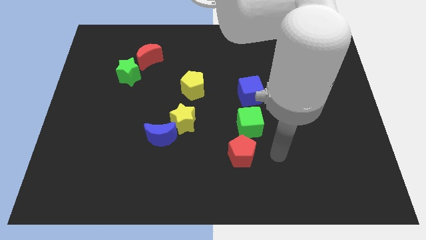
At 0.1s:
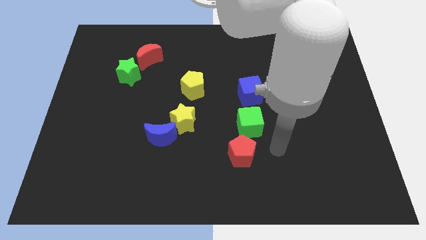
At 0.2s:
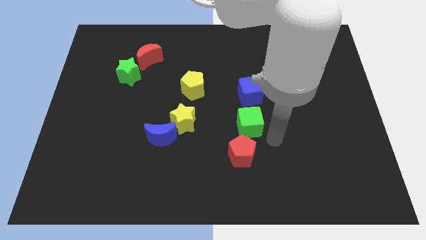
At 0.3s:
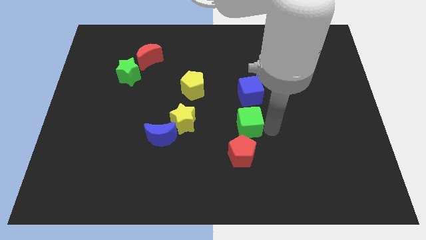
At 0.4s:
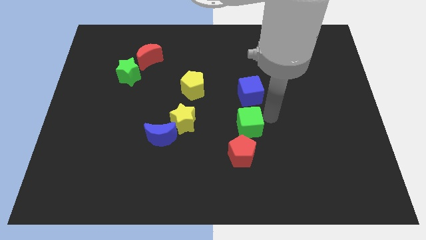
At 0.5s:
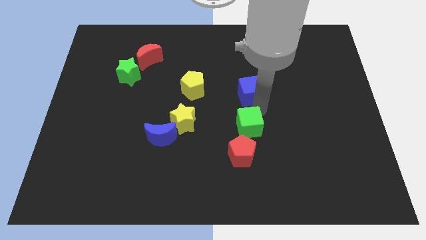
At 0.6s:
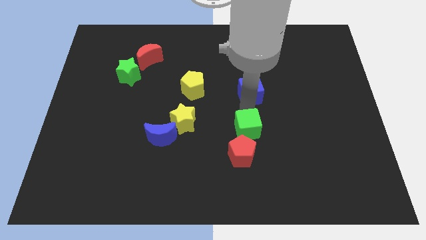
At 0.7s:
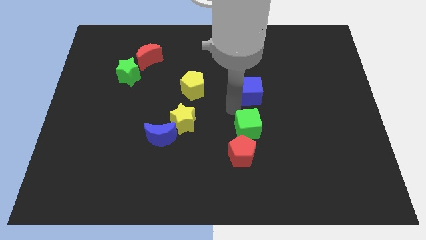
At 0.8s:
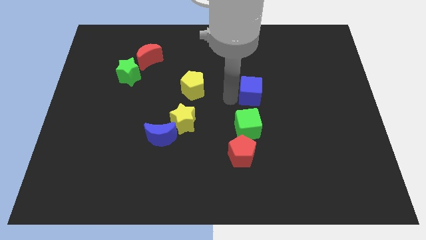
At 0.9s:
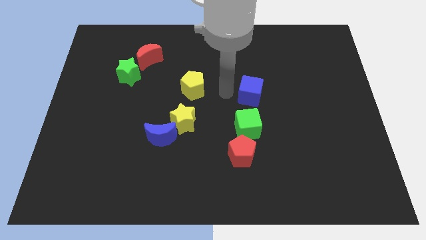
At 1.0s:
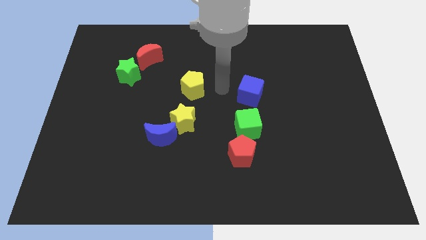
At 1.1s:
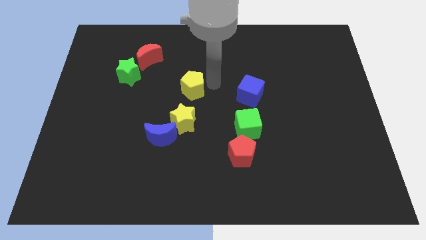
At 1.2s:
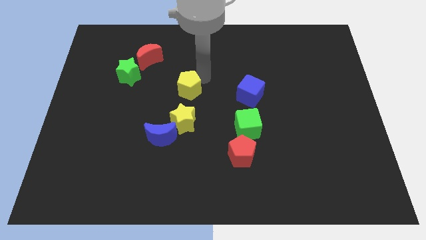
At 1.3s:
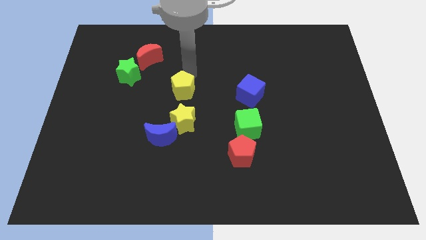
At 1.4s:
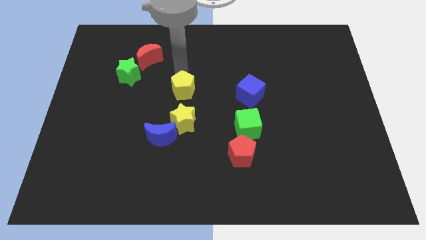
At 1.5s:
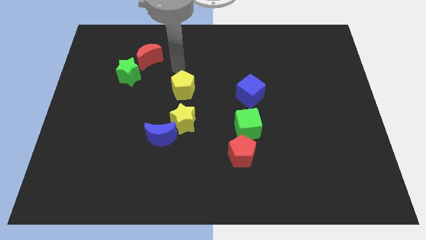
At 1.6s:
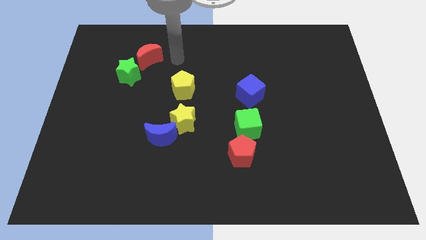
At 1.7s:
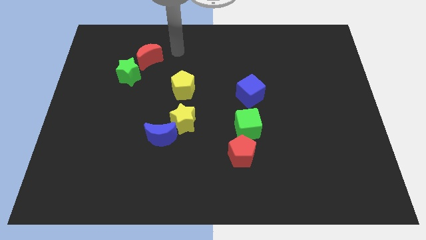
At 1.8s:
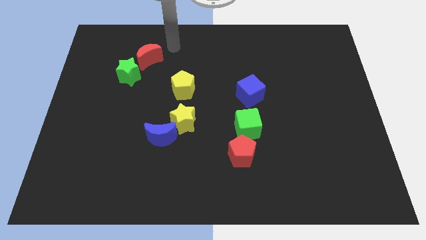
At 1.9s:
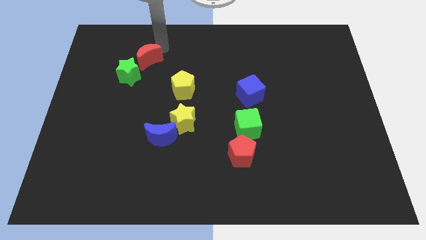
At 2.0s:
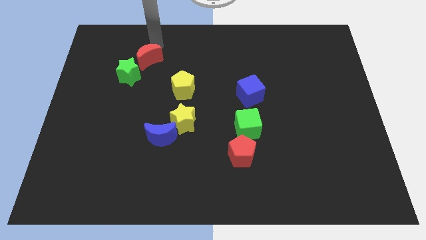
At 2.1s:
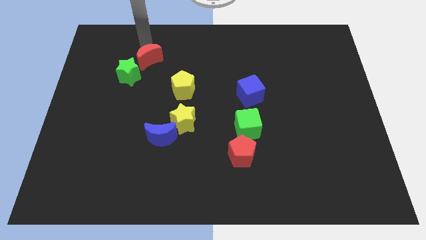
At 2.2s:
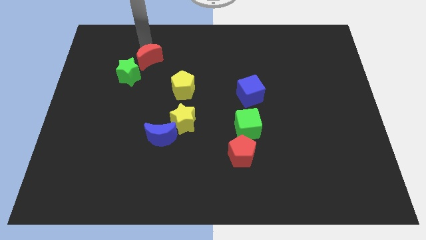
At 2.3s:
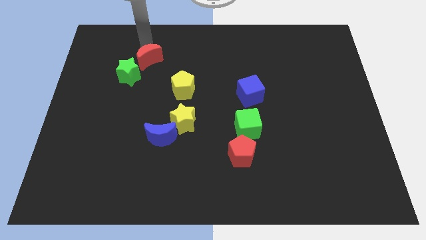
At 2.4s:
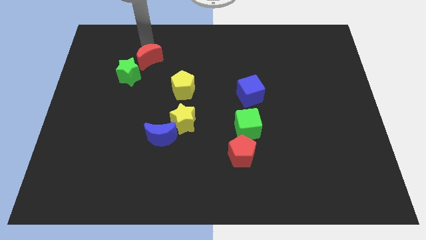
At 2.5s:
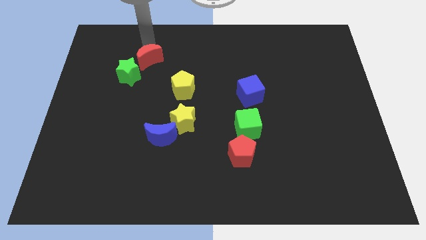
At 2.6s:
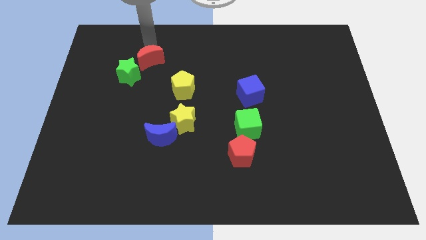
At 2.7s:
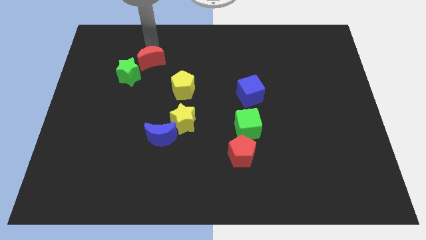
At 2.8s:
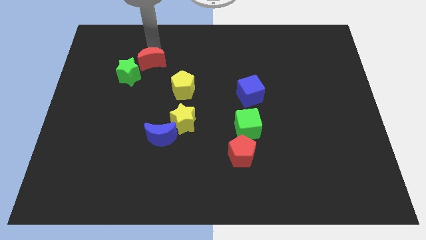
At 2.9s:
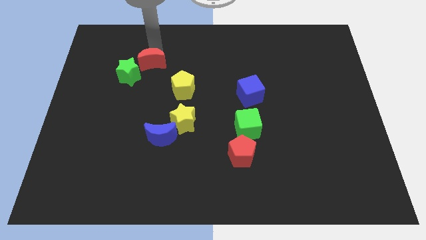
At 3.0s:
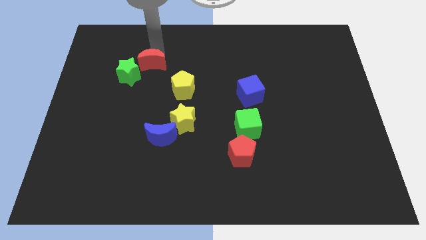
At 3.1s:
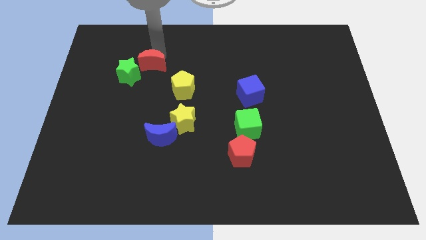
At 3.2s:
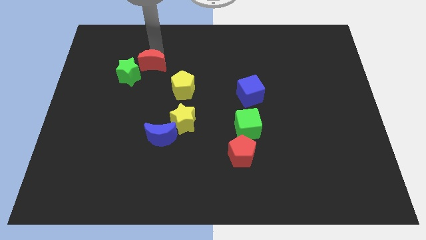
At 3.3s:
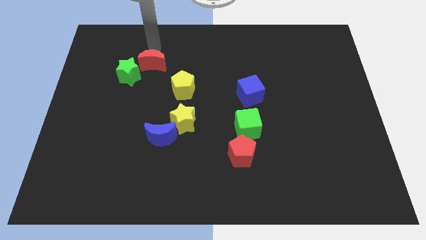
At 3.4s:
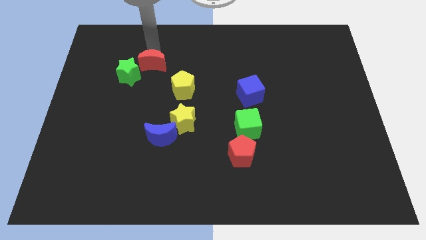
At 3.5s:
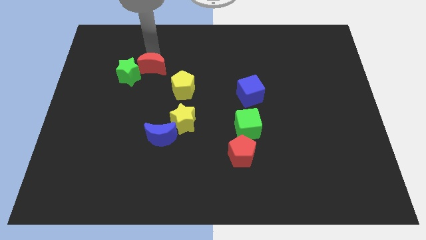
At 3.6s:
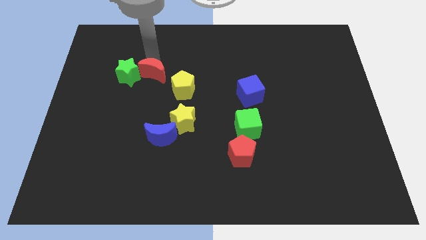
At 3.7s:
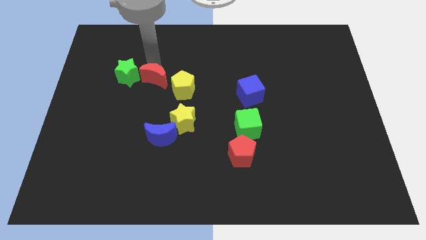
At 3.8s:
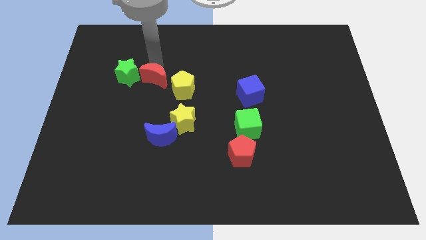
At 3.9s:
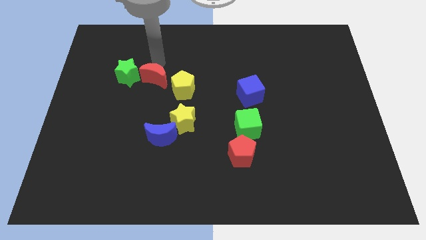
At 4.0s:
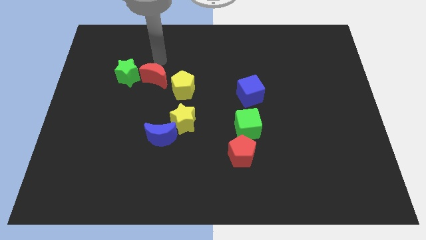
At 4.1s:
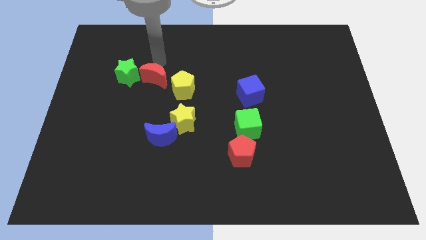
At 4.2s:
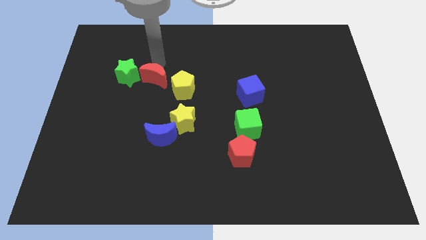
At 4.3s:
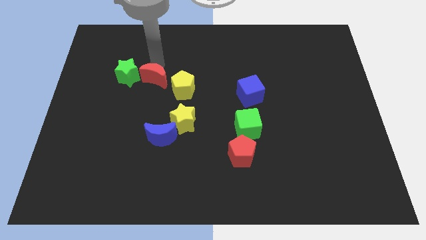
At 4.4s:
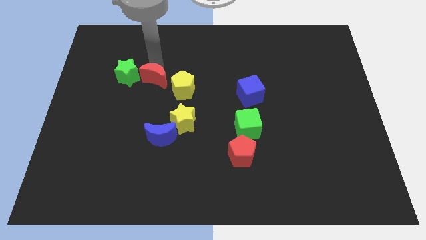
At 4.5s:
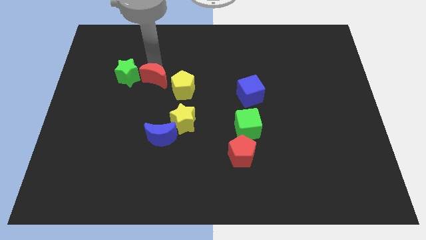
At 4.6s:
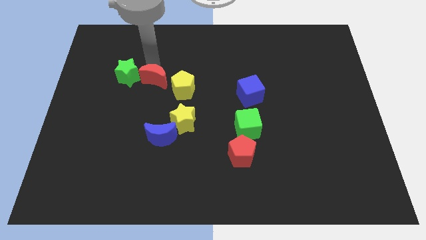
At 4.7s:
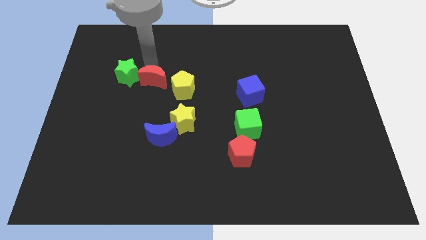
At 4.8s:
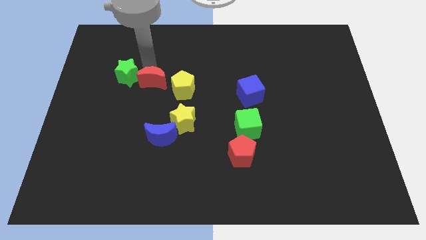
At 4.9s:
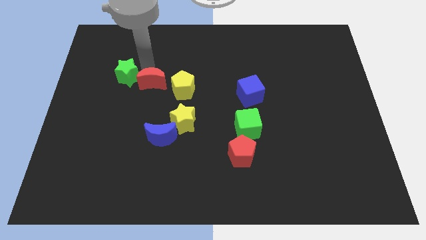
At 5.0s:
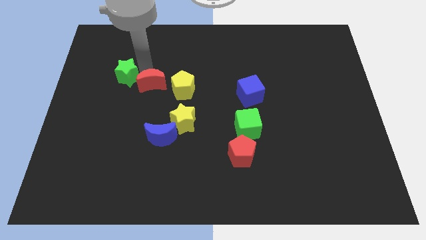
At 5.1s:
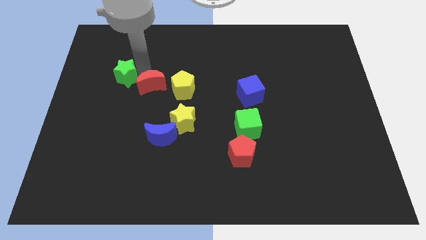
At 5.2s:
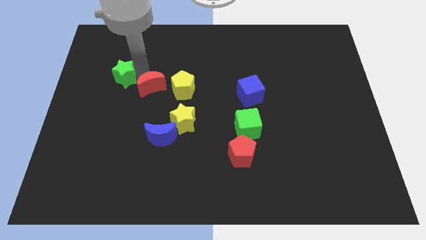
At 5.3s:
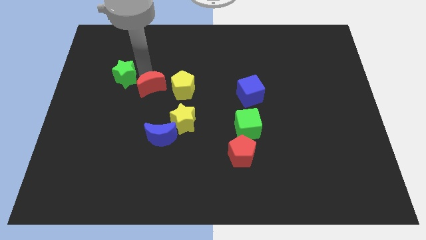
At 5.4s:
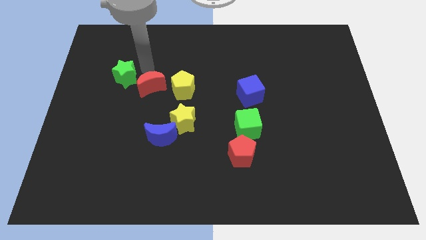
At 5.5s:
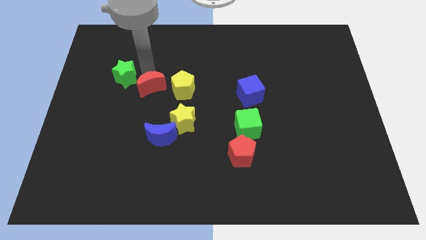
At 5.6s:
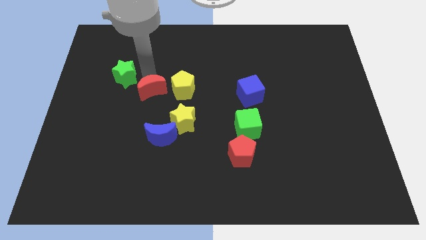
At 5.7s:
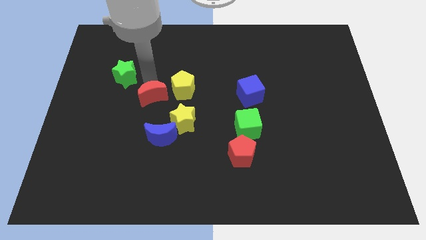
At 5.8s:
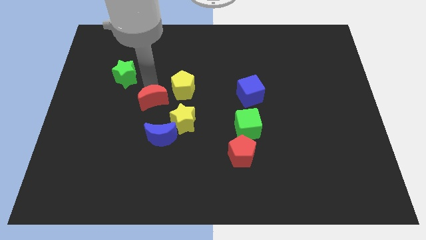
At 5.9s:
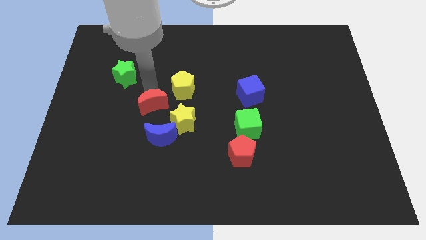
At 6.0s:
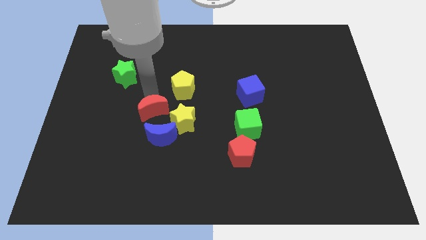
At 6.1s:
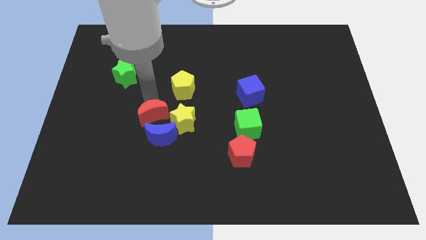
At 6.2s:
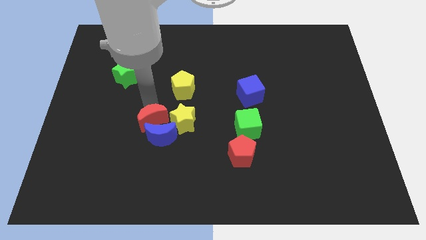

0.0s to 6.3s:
push the red moon close to the blue moon

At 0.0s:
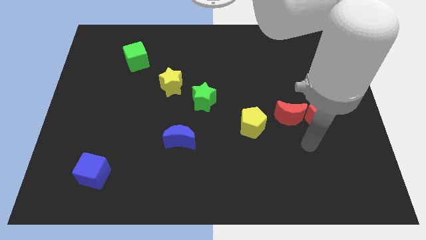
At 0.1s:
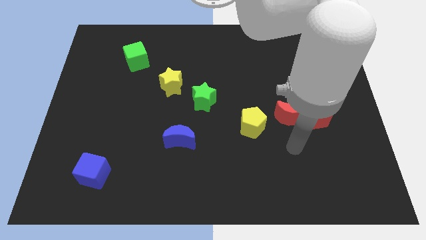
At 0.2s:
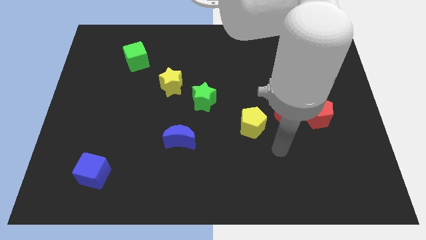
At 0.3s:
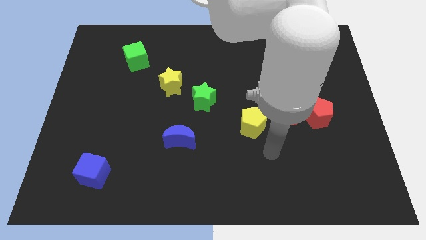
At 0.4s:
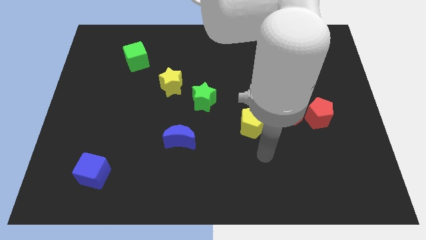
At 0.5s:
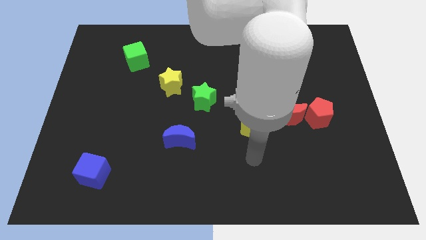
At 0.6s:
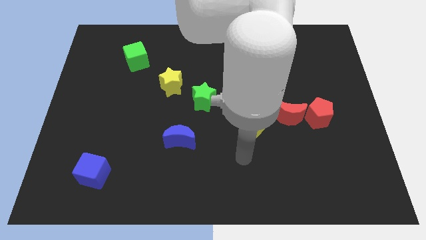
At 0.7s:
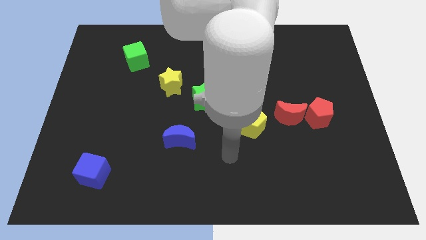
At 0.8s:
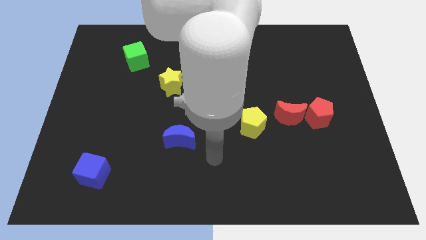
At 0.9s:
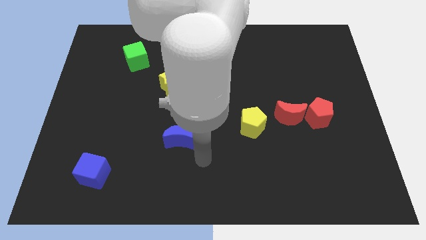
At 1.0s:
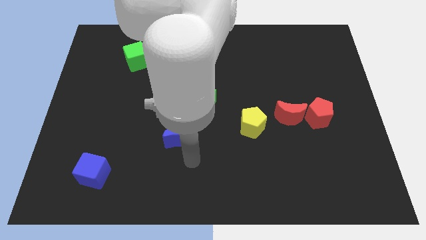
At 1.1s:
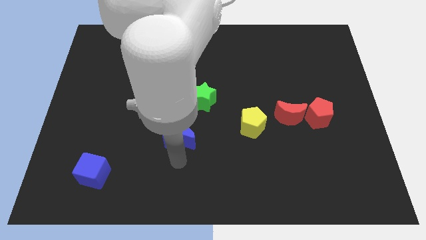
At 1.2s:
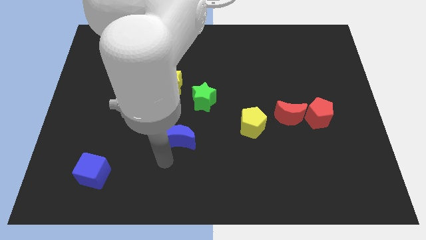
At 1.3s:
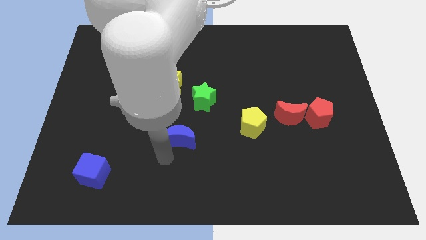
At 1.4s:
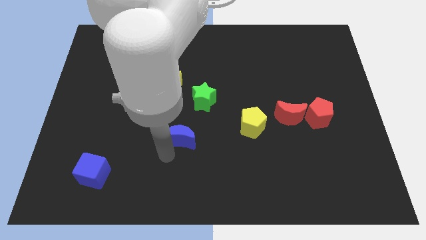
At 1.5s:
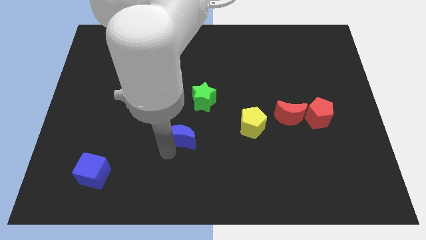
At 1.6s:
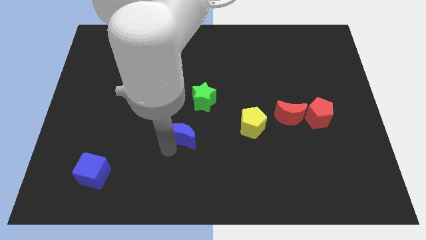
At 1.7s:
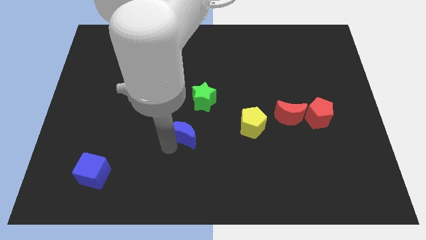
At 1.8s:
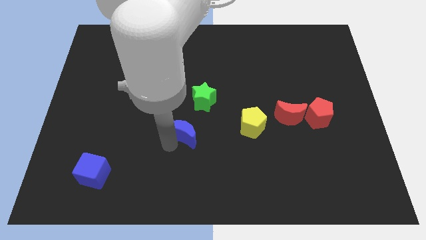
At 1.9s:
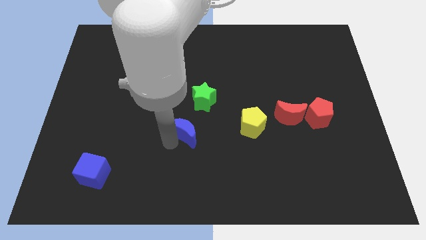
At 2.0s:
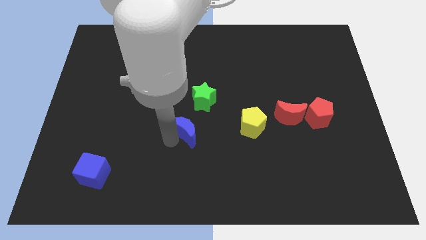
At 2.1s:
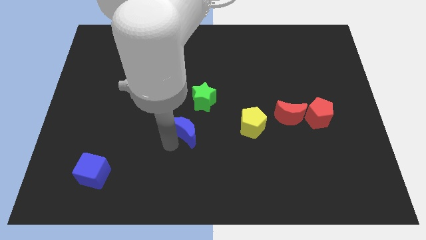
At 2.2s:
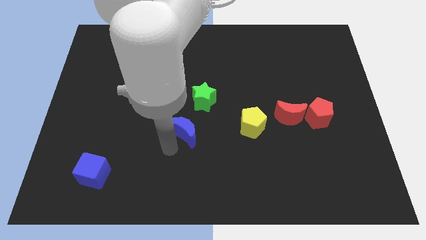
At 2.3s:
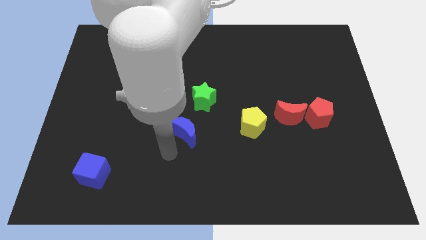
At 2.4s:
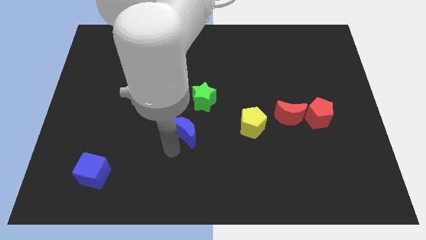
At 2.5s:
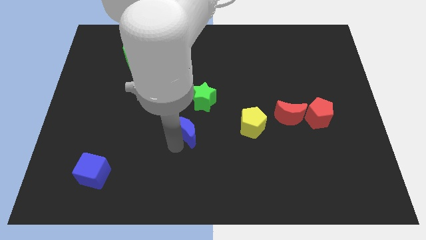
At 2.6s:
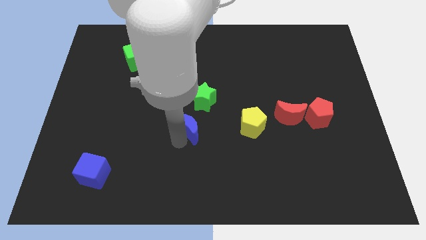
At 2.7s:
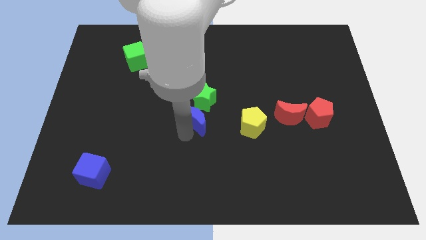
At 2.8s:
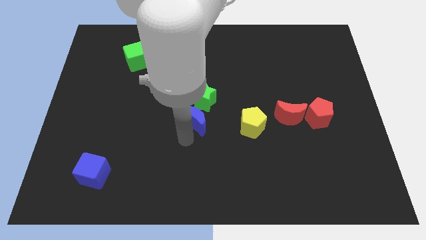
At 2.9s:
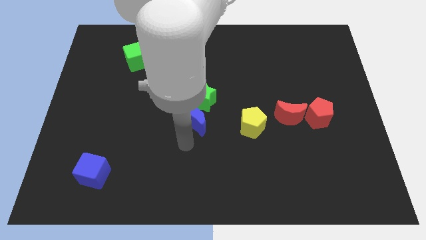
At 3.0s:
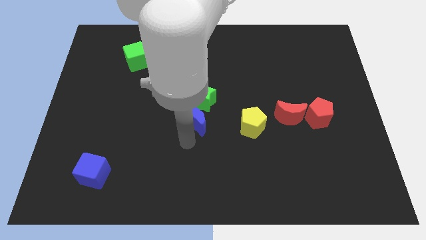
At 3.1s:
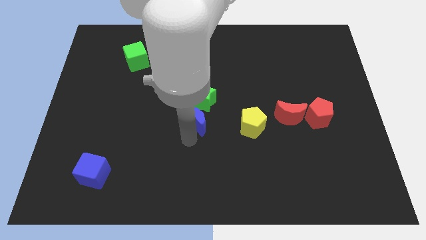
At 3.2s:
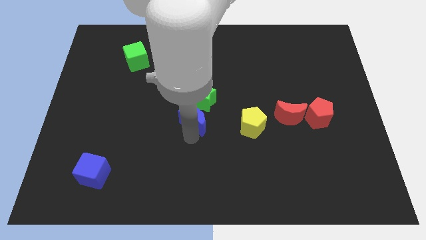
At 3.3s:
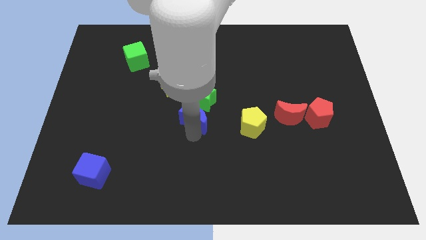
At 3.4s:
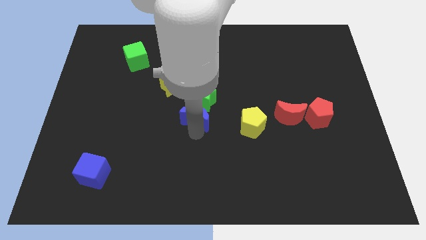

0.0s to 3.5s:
move the blue moon next to the green star
